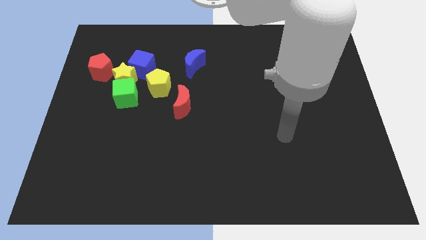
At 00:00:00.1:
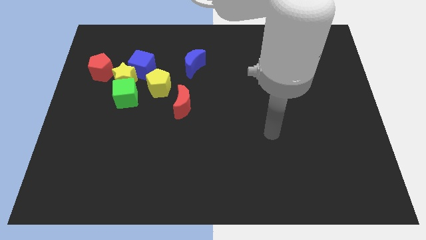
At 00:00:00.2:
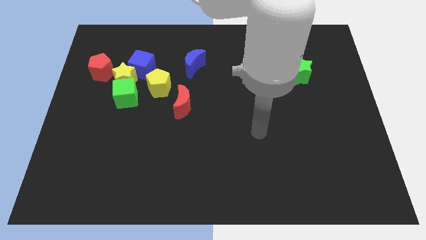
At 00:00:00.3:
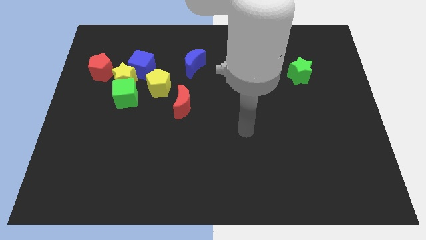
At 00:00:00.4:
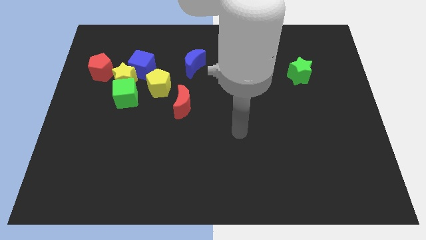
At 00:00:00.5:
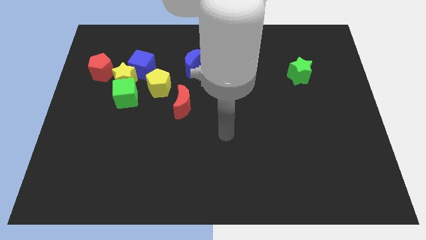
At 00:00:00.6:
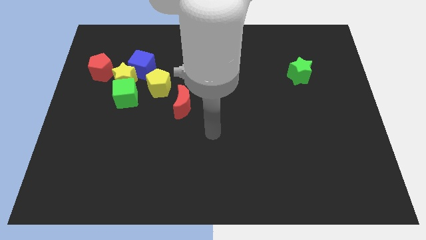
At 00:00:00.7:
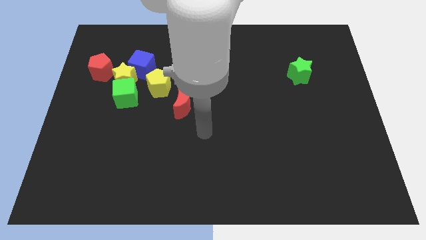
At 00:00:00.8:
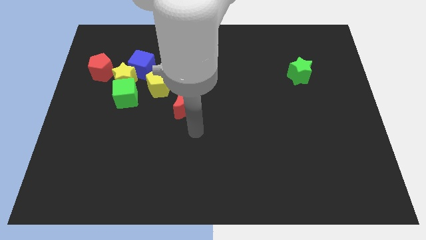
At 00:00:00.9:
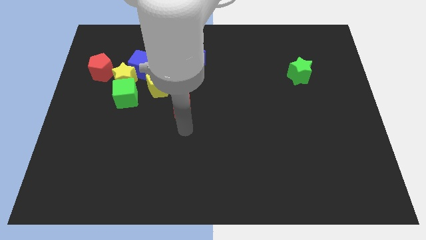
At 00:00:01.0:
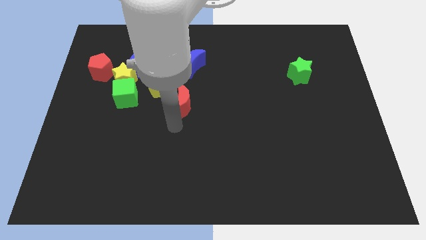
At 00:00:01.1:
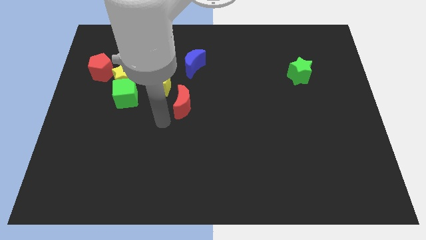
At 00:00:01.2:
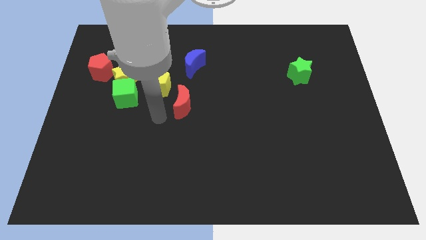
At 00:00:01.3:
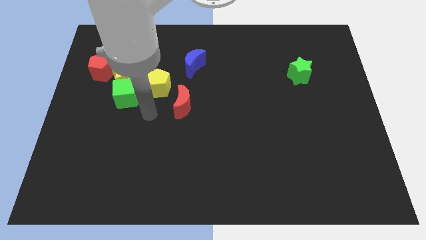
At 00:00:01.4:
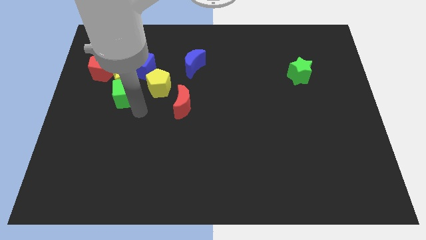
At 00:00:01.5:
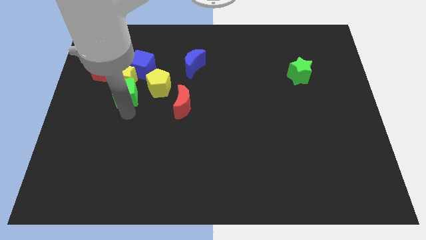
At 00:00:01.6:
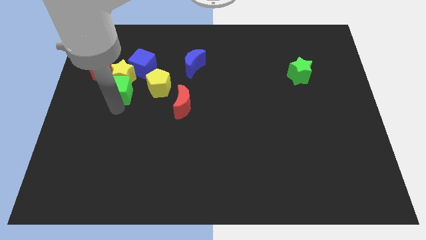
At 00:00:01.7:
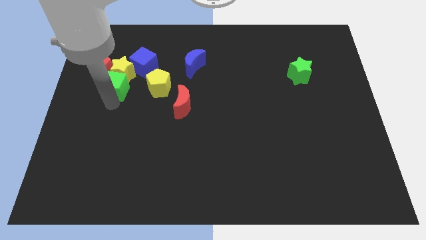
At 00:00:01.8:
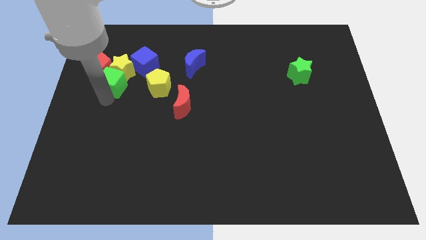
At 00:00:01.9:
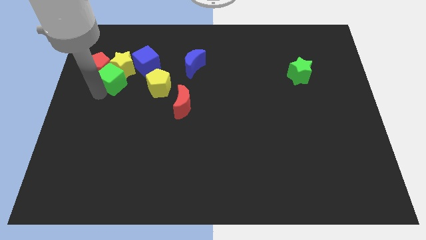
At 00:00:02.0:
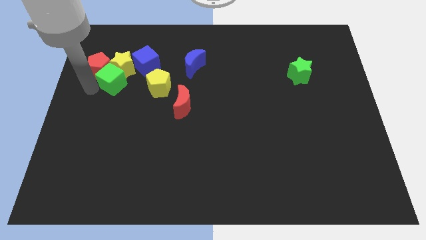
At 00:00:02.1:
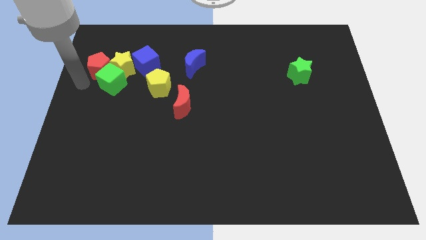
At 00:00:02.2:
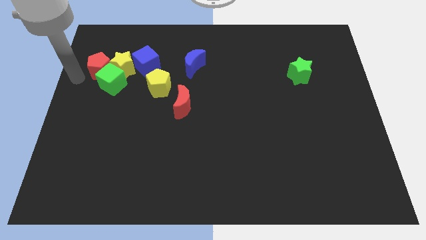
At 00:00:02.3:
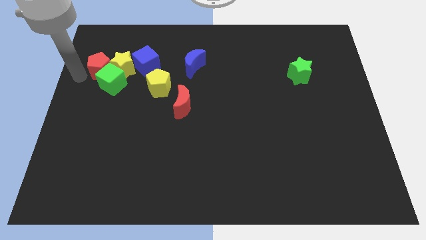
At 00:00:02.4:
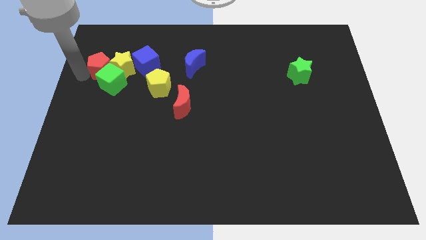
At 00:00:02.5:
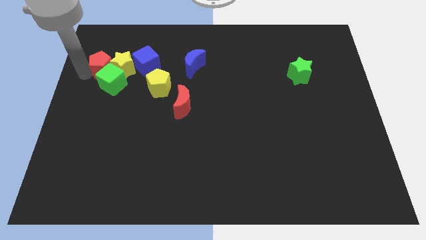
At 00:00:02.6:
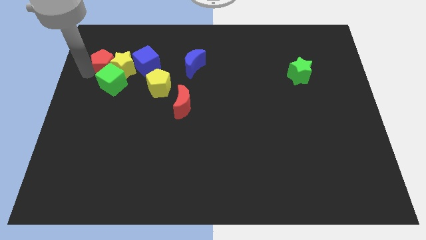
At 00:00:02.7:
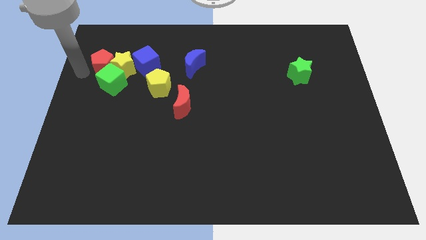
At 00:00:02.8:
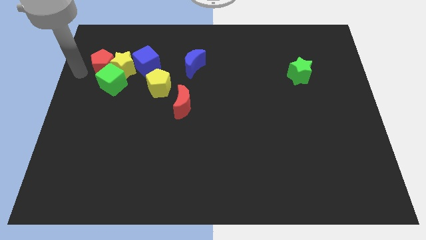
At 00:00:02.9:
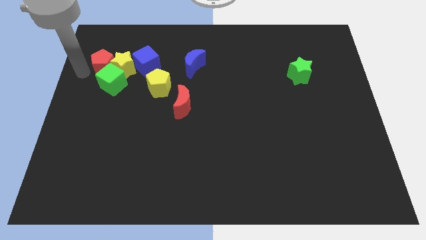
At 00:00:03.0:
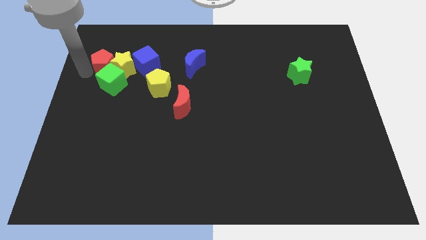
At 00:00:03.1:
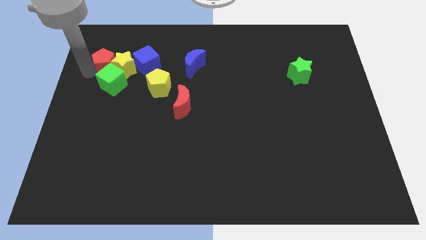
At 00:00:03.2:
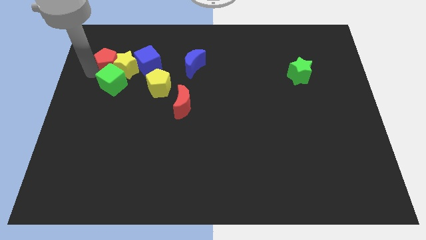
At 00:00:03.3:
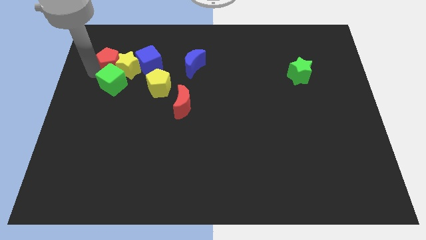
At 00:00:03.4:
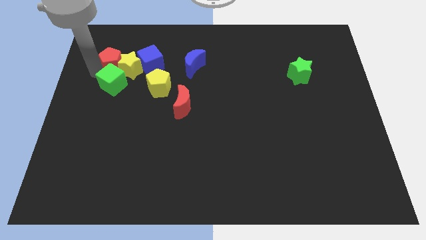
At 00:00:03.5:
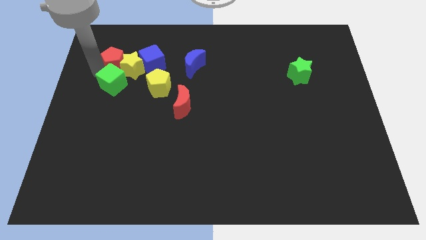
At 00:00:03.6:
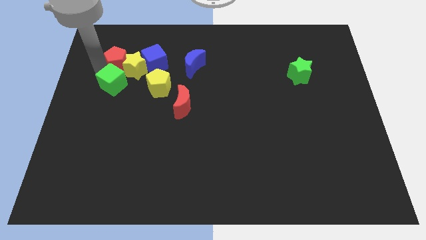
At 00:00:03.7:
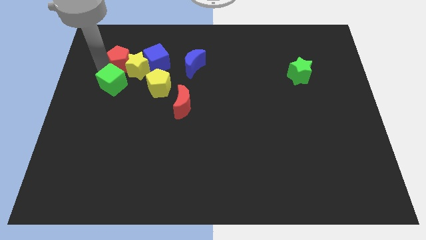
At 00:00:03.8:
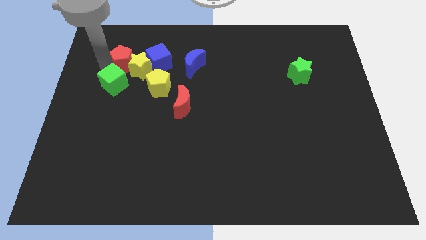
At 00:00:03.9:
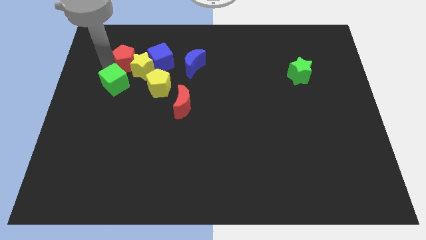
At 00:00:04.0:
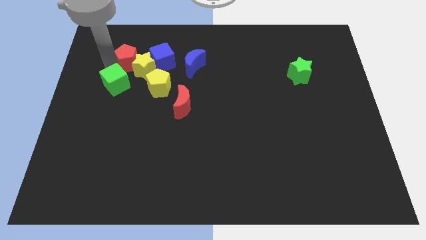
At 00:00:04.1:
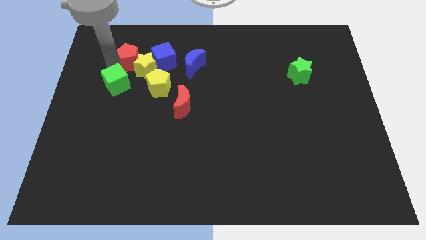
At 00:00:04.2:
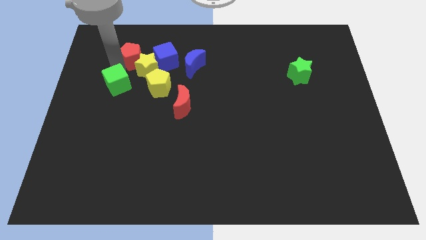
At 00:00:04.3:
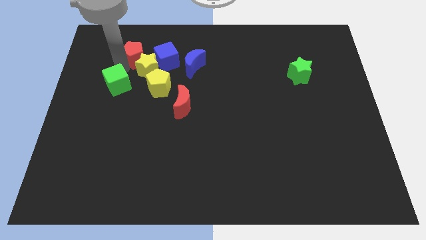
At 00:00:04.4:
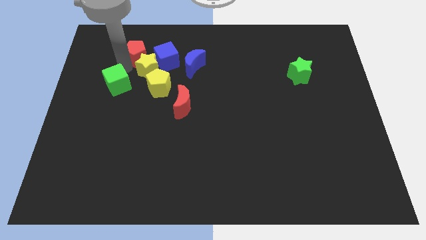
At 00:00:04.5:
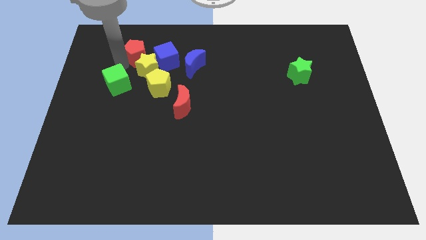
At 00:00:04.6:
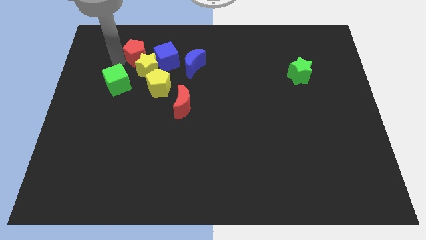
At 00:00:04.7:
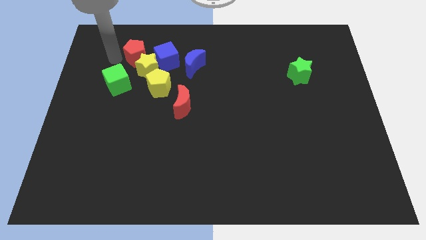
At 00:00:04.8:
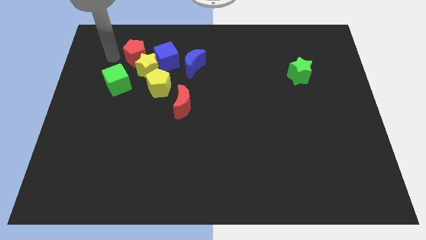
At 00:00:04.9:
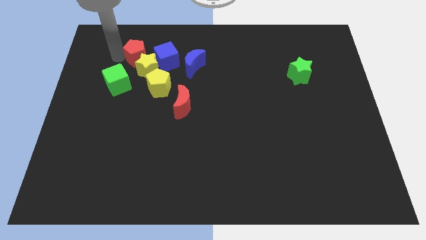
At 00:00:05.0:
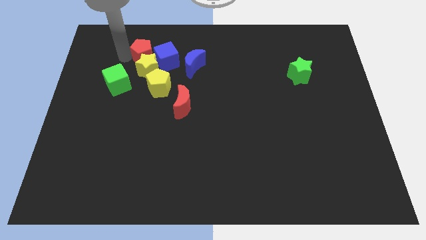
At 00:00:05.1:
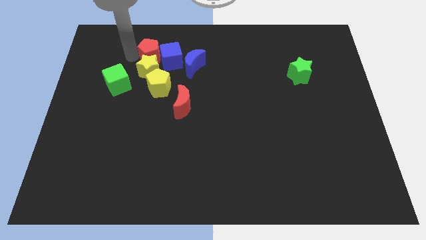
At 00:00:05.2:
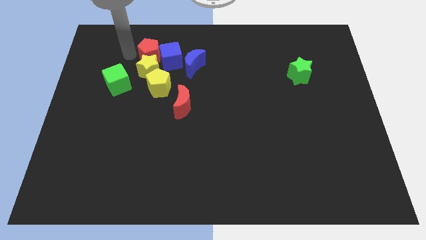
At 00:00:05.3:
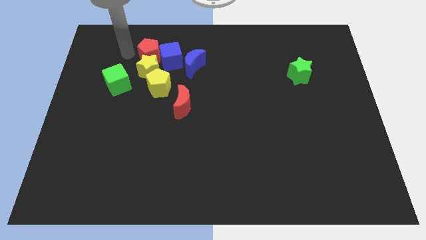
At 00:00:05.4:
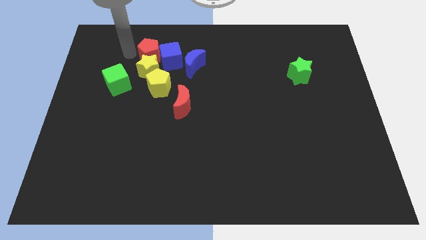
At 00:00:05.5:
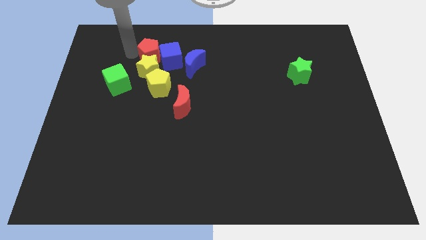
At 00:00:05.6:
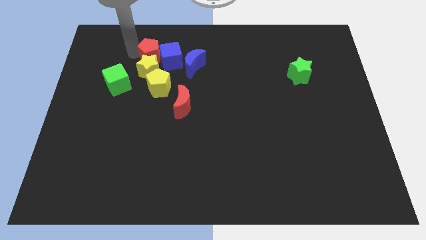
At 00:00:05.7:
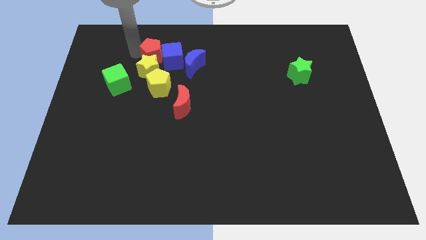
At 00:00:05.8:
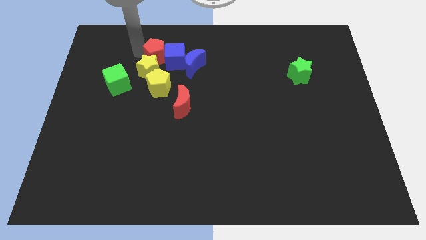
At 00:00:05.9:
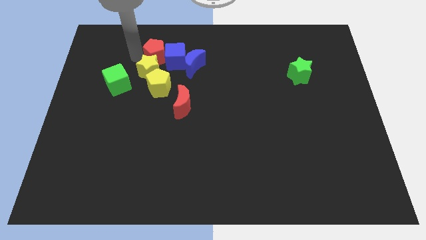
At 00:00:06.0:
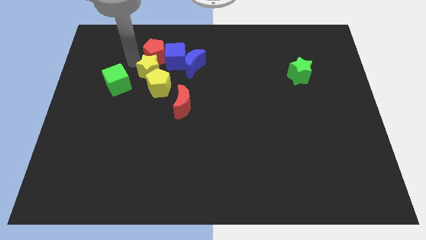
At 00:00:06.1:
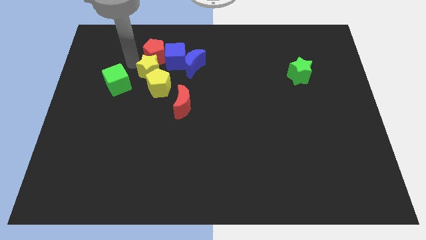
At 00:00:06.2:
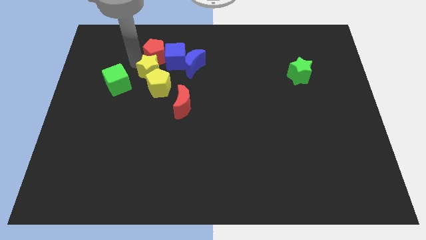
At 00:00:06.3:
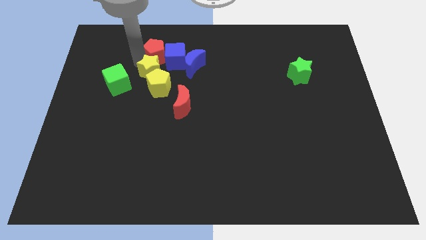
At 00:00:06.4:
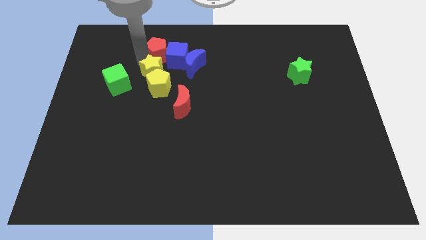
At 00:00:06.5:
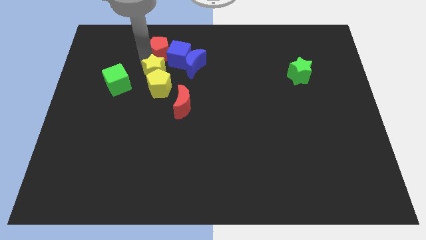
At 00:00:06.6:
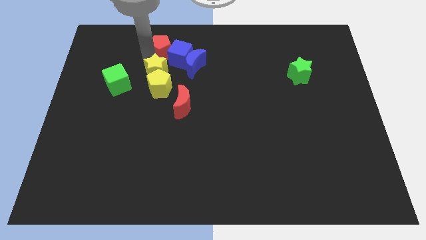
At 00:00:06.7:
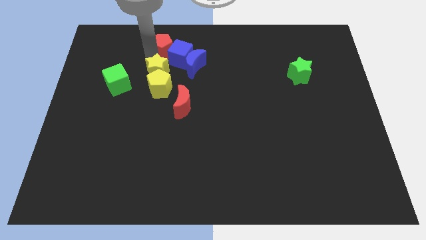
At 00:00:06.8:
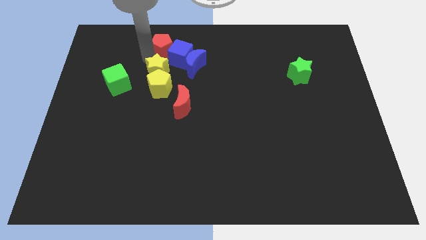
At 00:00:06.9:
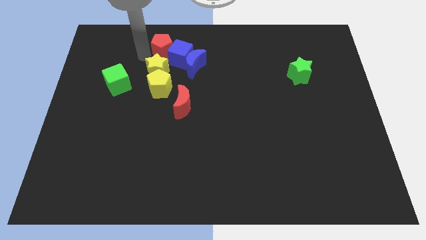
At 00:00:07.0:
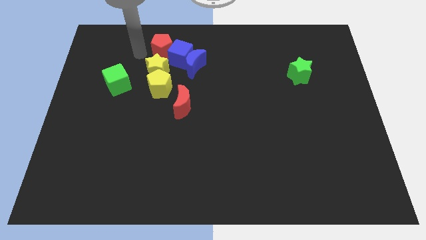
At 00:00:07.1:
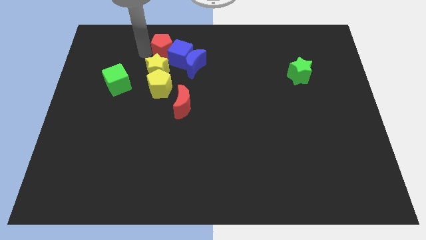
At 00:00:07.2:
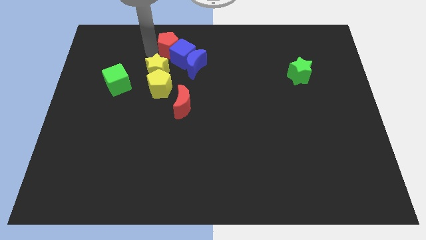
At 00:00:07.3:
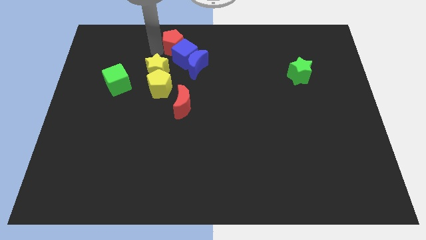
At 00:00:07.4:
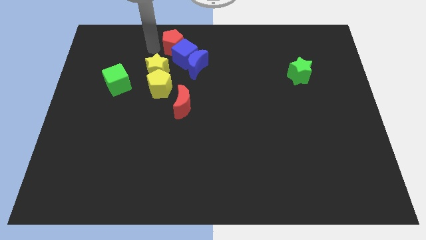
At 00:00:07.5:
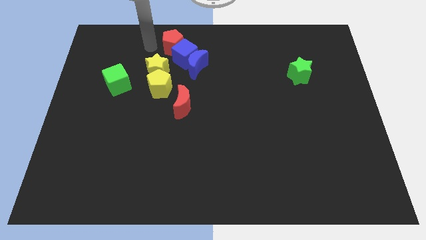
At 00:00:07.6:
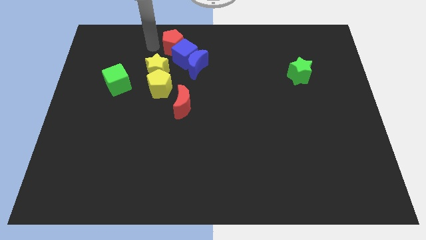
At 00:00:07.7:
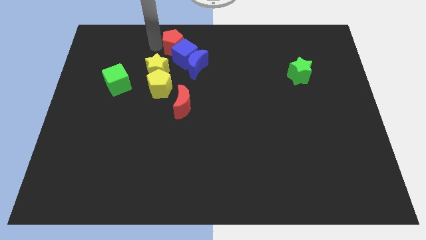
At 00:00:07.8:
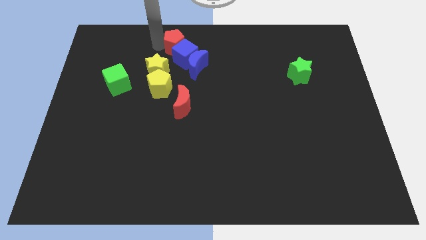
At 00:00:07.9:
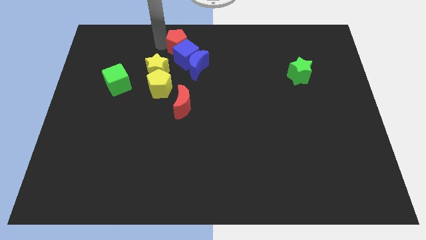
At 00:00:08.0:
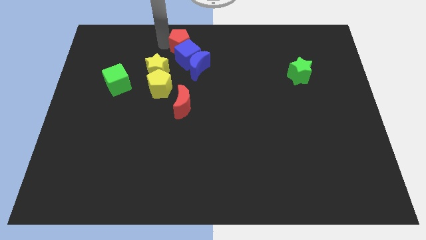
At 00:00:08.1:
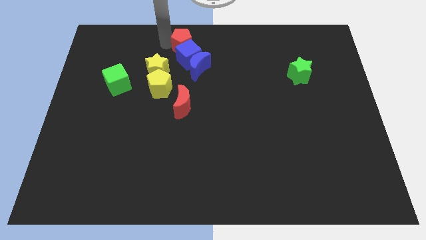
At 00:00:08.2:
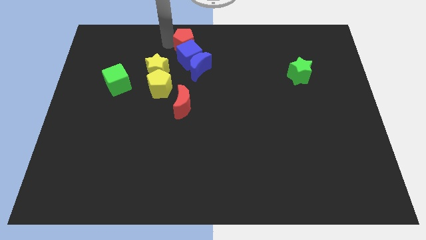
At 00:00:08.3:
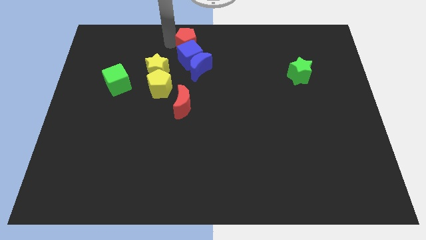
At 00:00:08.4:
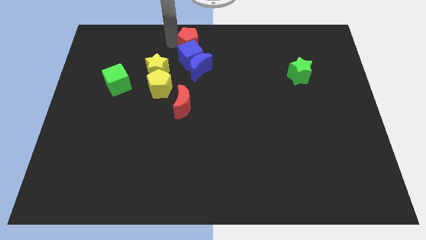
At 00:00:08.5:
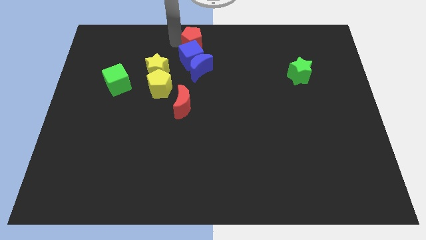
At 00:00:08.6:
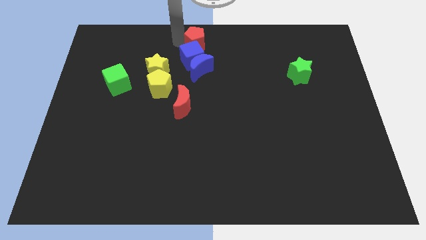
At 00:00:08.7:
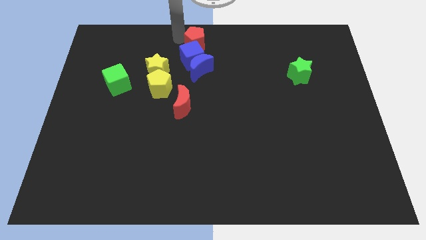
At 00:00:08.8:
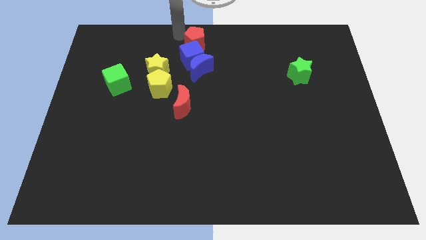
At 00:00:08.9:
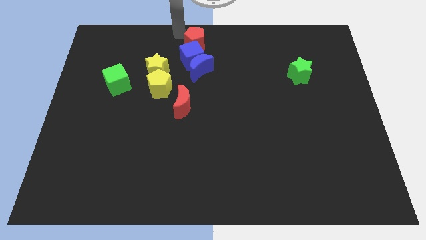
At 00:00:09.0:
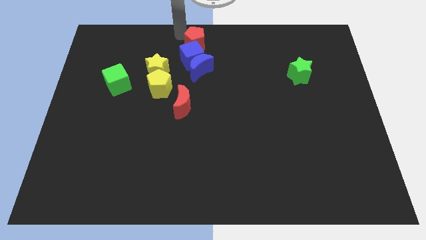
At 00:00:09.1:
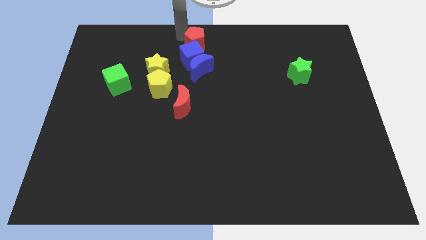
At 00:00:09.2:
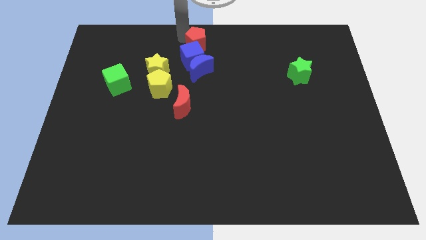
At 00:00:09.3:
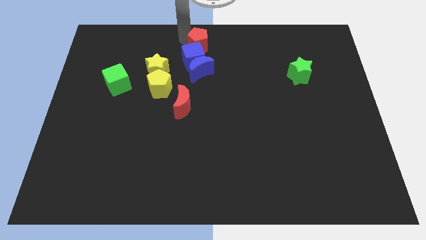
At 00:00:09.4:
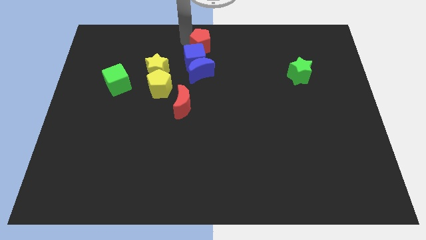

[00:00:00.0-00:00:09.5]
move the red pentagon to the right
